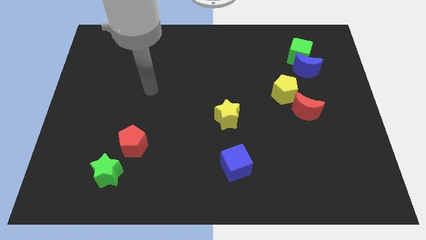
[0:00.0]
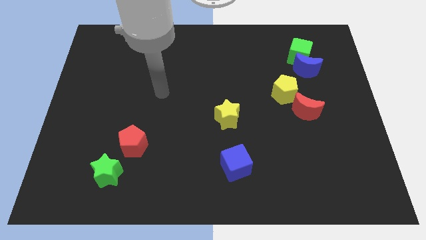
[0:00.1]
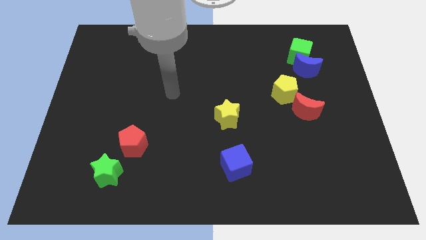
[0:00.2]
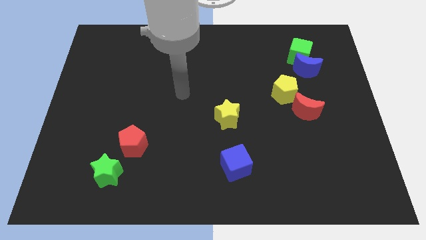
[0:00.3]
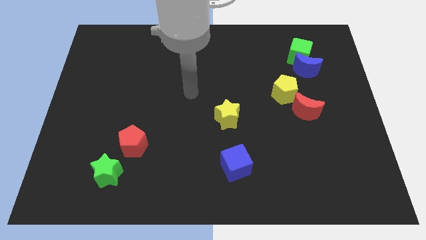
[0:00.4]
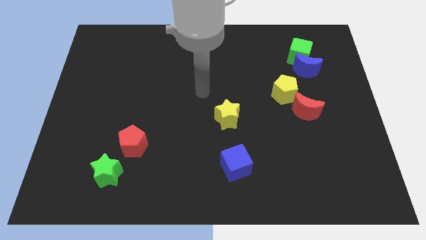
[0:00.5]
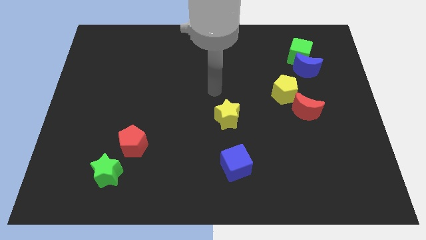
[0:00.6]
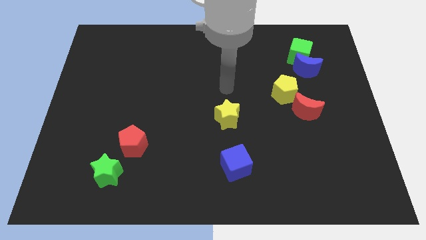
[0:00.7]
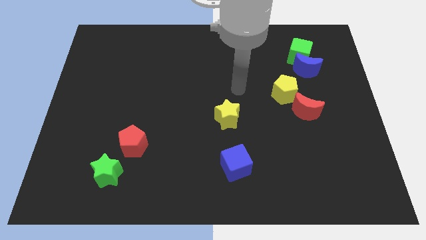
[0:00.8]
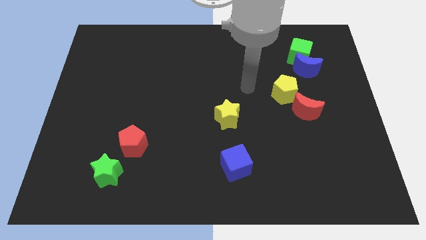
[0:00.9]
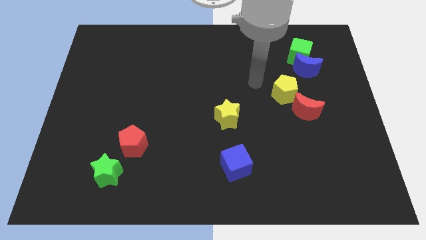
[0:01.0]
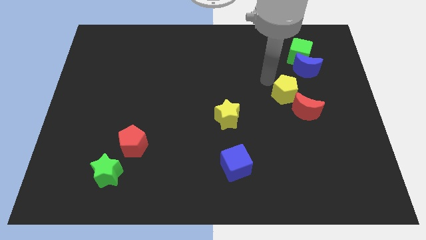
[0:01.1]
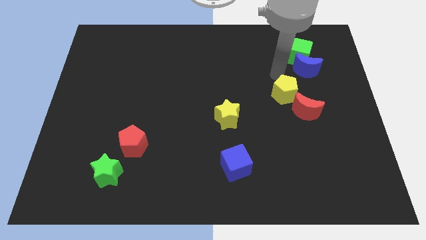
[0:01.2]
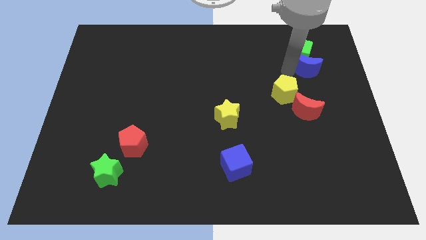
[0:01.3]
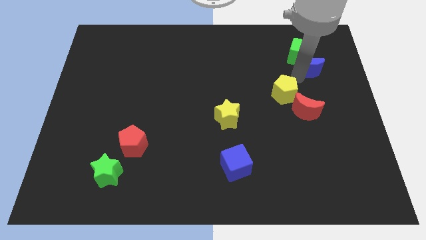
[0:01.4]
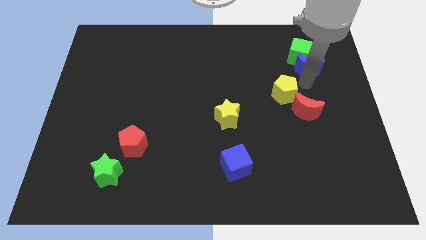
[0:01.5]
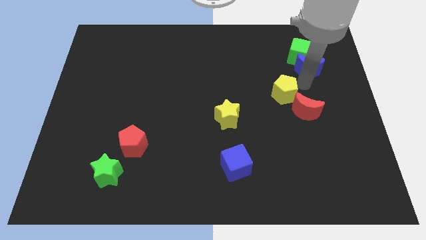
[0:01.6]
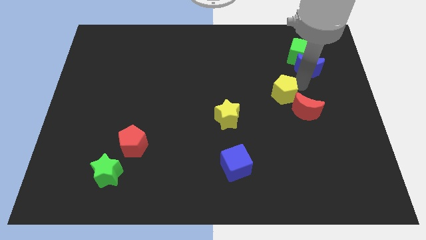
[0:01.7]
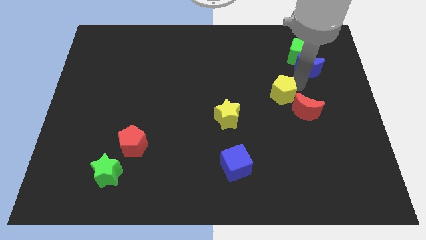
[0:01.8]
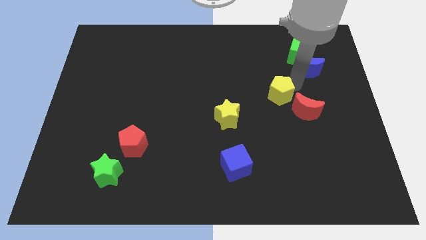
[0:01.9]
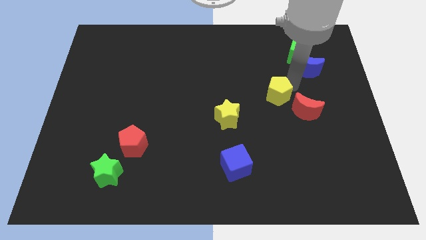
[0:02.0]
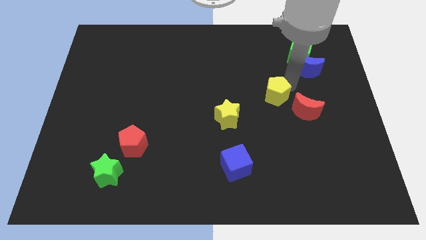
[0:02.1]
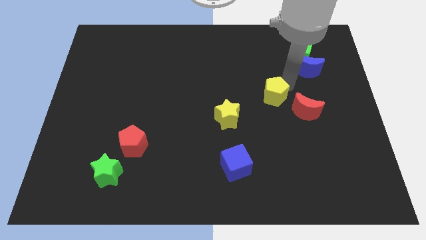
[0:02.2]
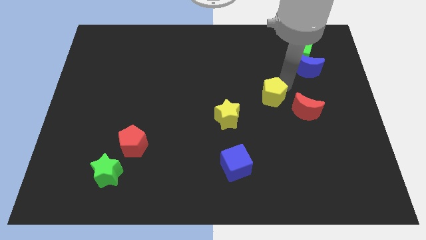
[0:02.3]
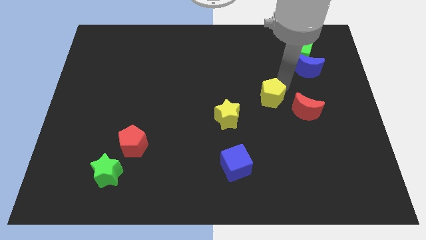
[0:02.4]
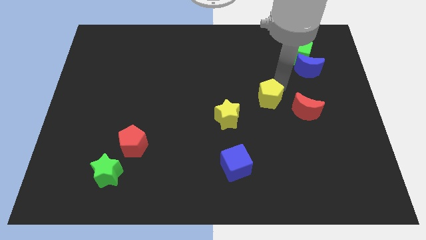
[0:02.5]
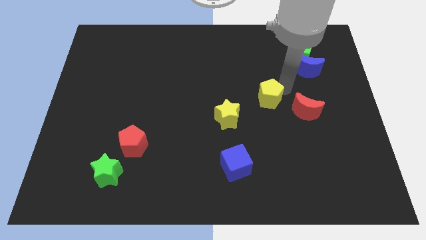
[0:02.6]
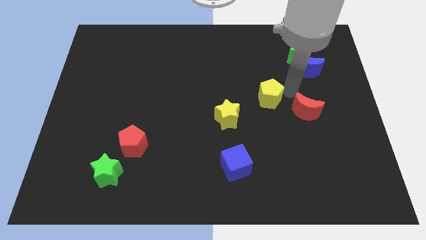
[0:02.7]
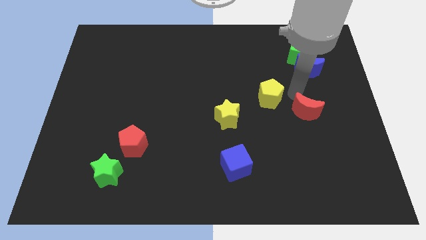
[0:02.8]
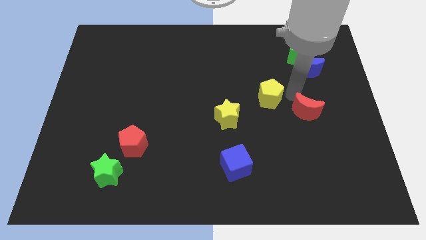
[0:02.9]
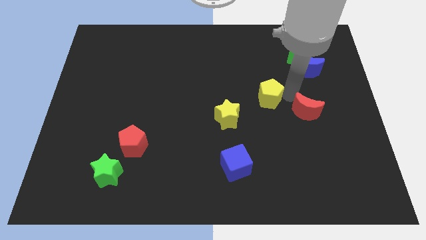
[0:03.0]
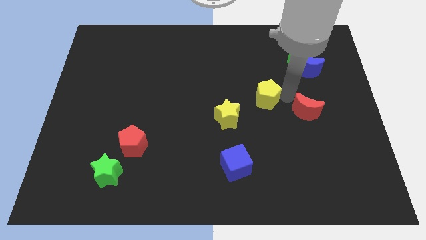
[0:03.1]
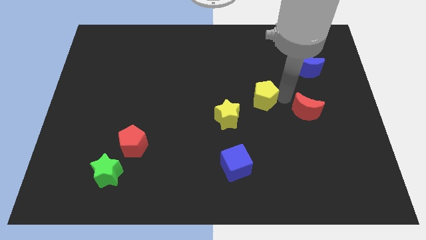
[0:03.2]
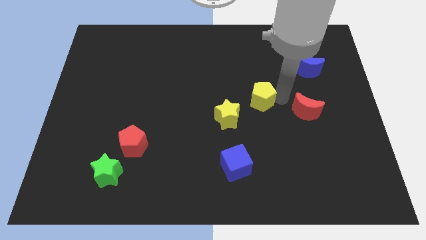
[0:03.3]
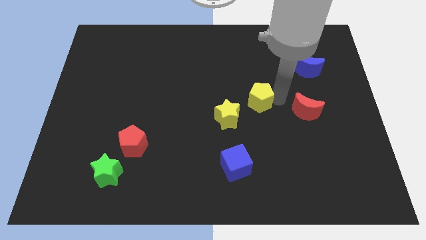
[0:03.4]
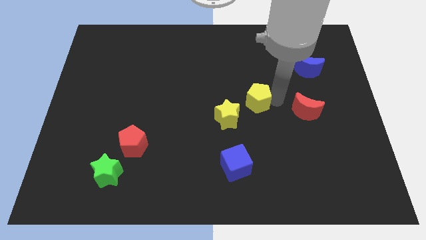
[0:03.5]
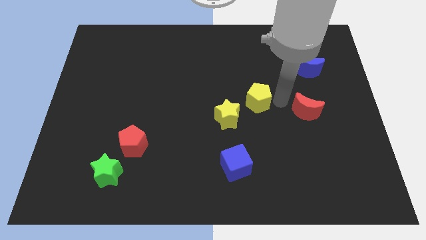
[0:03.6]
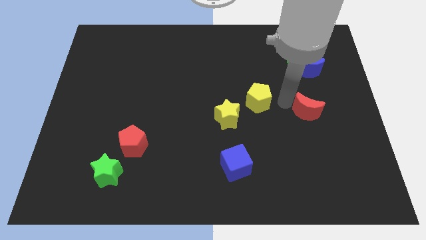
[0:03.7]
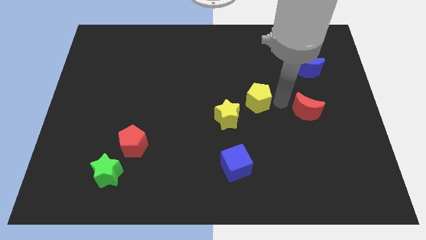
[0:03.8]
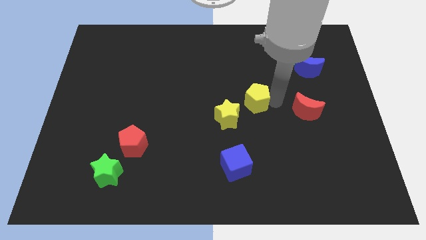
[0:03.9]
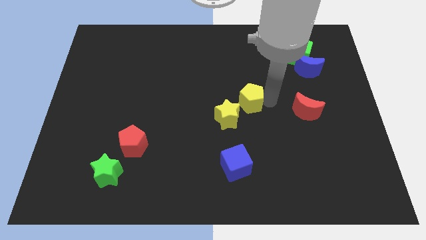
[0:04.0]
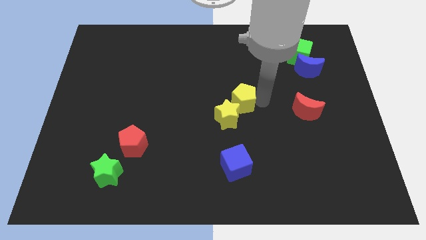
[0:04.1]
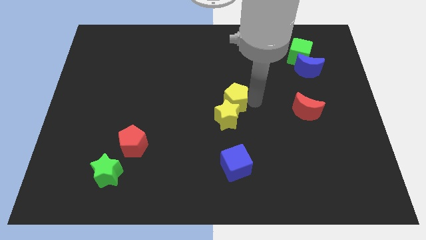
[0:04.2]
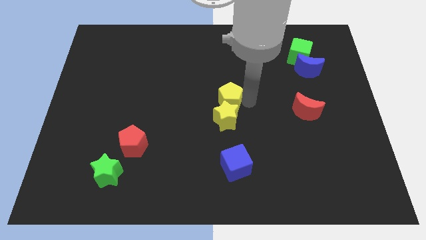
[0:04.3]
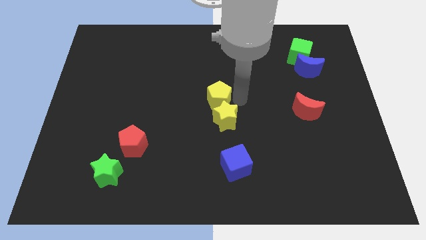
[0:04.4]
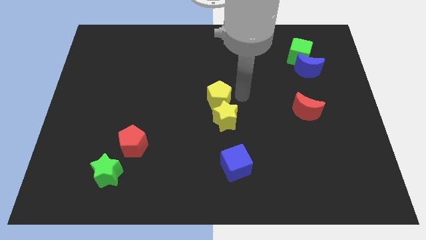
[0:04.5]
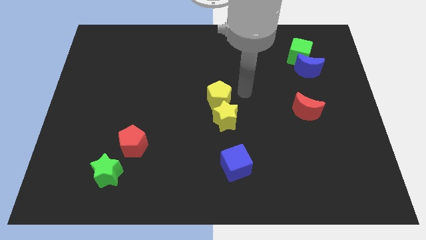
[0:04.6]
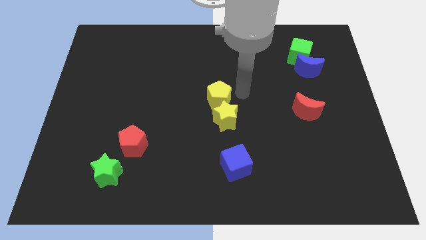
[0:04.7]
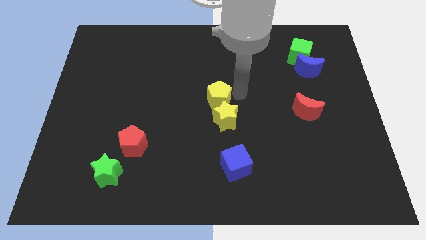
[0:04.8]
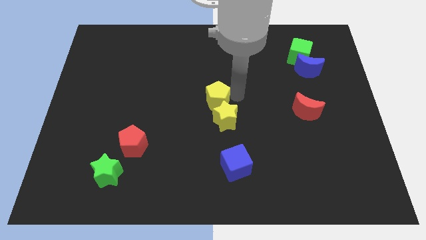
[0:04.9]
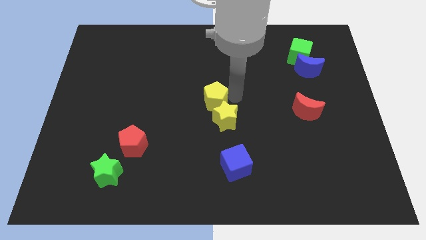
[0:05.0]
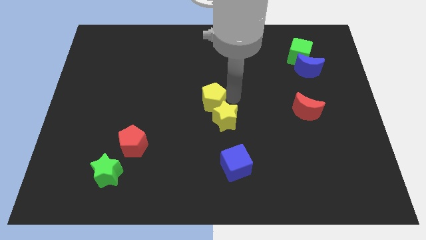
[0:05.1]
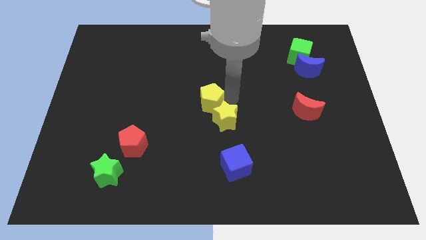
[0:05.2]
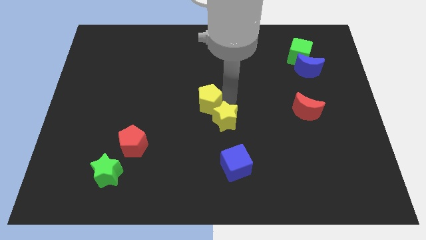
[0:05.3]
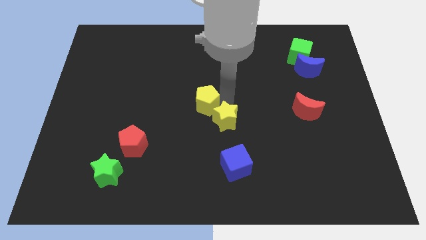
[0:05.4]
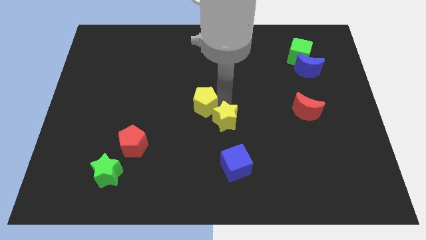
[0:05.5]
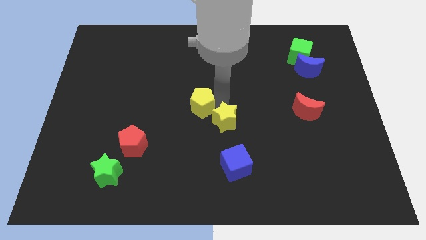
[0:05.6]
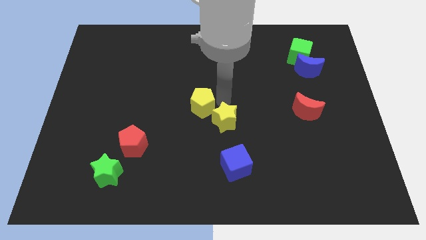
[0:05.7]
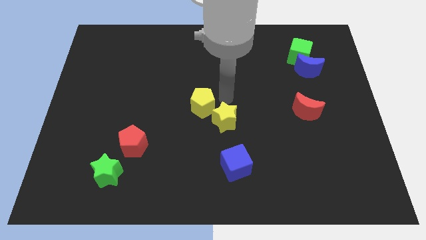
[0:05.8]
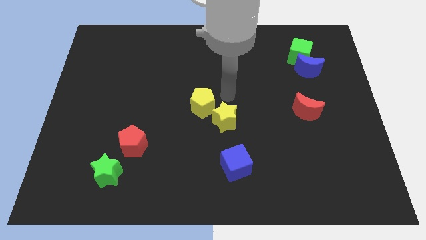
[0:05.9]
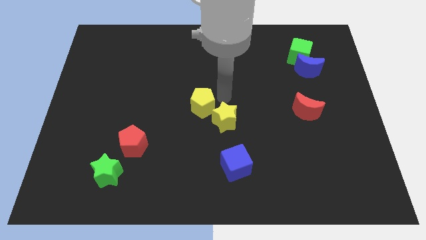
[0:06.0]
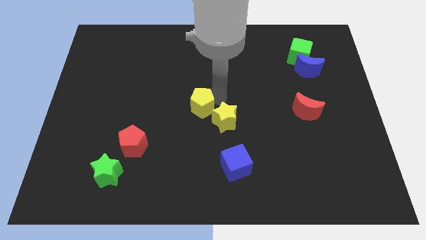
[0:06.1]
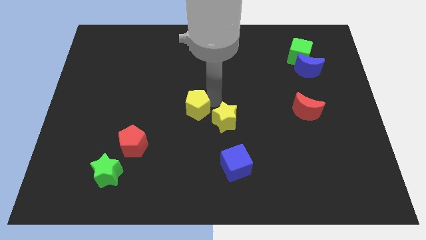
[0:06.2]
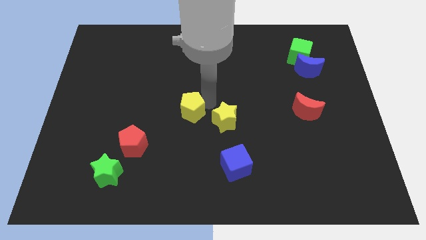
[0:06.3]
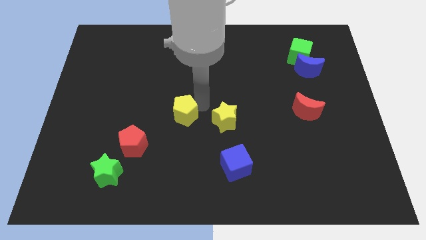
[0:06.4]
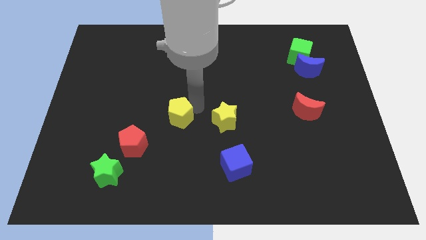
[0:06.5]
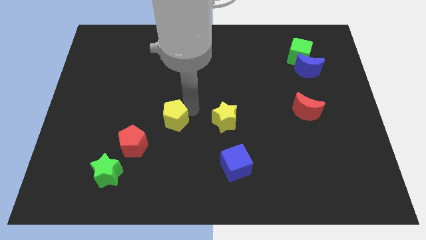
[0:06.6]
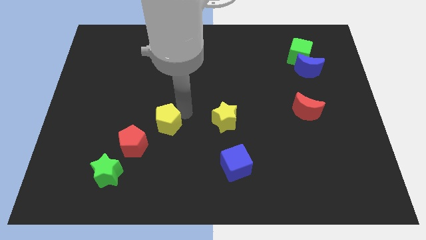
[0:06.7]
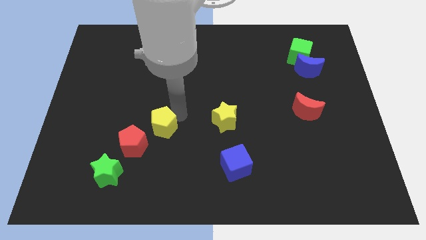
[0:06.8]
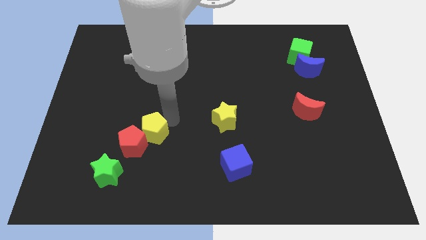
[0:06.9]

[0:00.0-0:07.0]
slide the yellow pentagon next to the red pentagon
